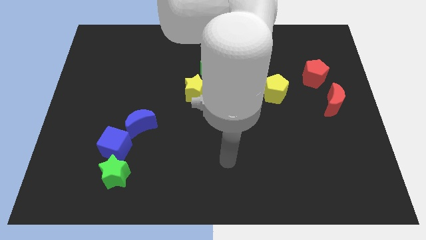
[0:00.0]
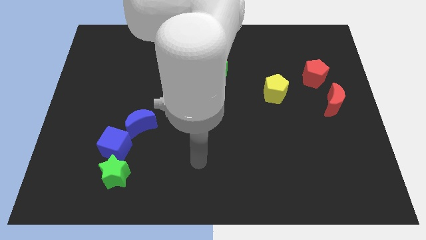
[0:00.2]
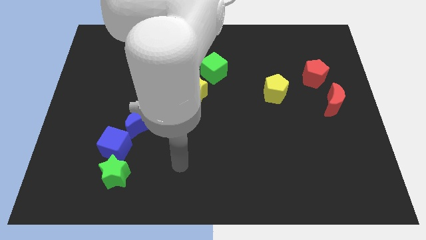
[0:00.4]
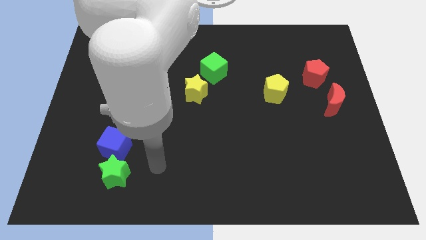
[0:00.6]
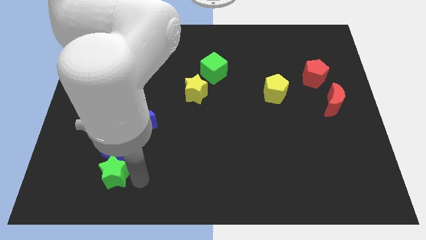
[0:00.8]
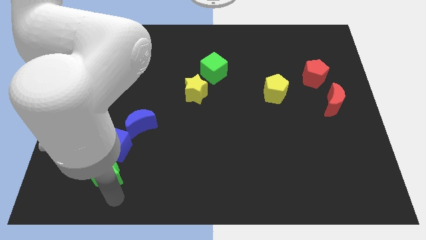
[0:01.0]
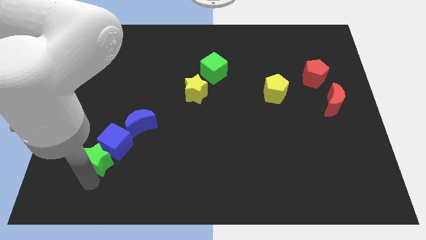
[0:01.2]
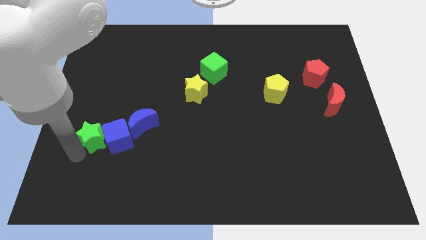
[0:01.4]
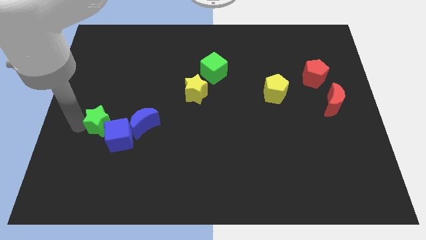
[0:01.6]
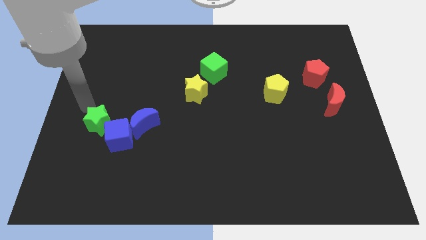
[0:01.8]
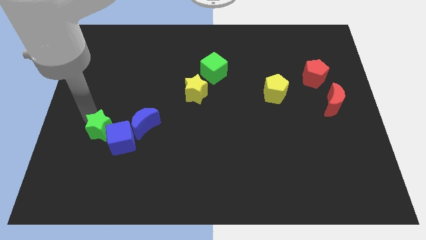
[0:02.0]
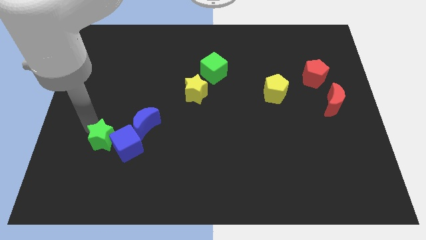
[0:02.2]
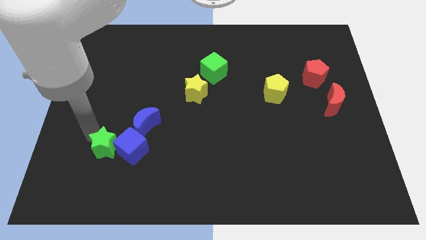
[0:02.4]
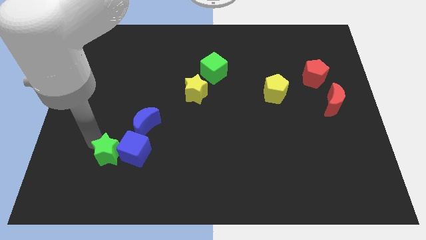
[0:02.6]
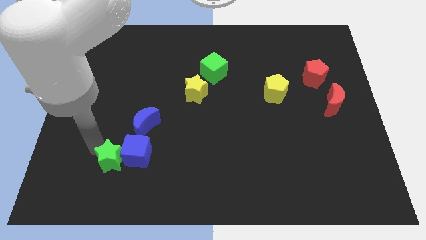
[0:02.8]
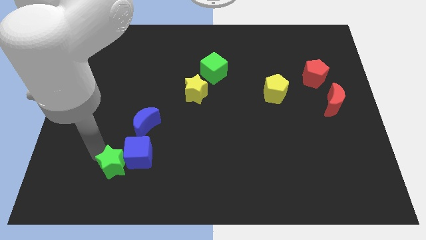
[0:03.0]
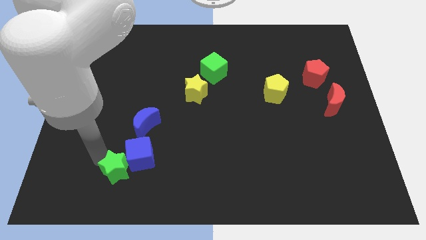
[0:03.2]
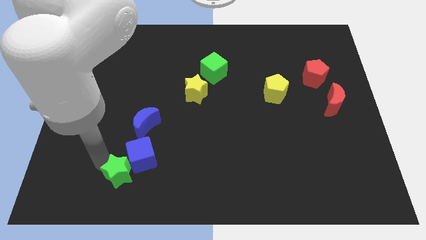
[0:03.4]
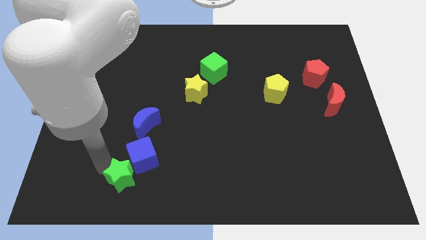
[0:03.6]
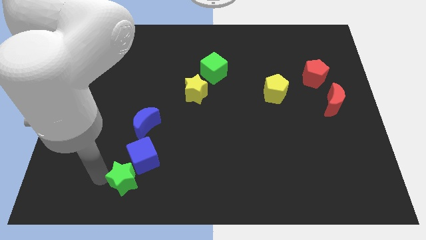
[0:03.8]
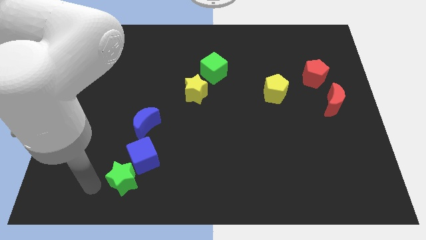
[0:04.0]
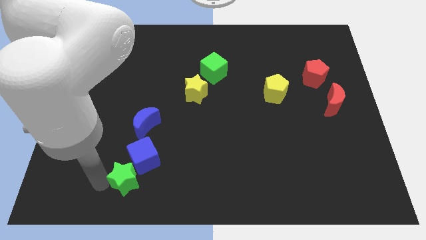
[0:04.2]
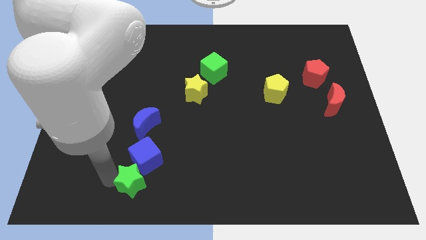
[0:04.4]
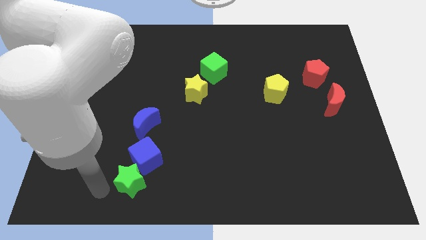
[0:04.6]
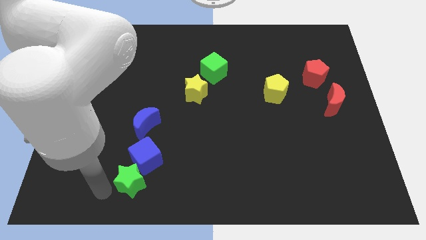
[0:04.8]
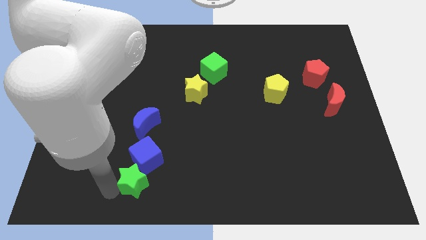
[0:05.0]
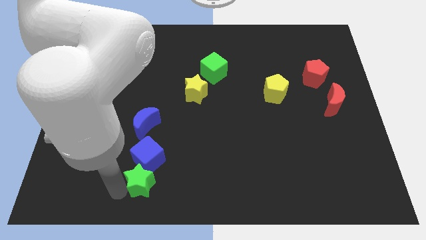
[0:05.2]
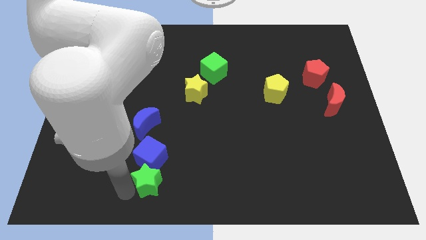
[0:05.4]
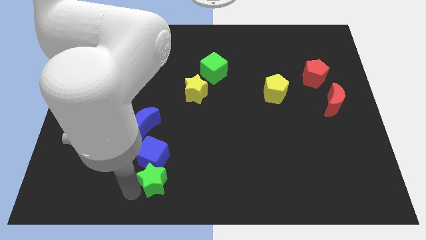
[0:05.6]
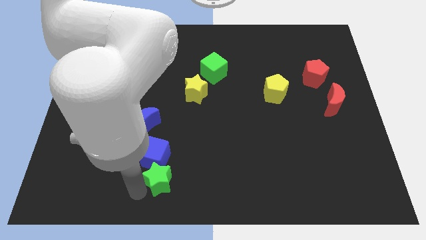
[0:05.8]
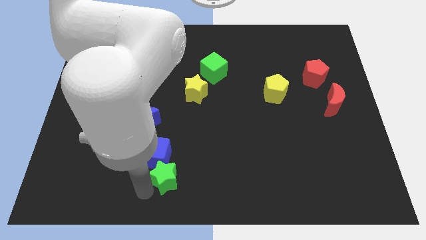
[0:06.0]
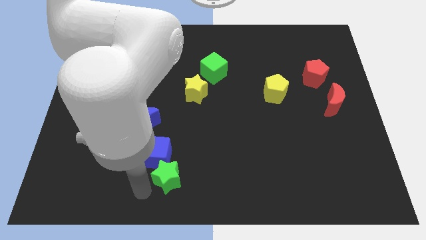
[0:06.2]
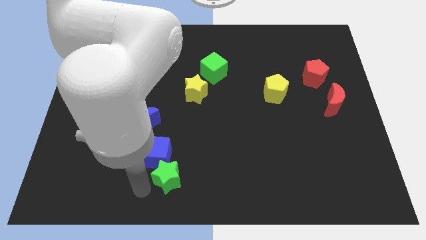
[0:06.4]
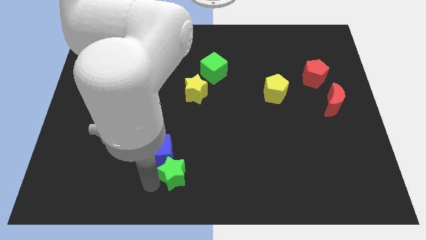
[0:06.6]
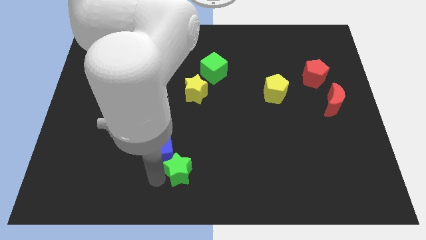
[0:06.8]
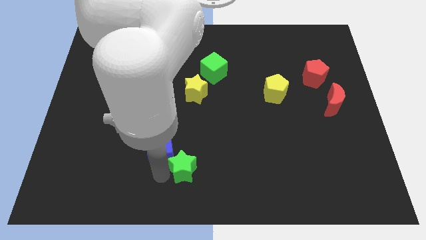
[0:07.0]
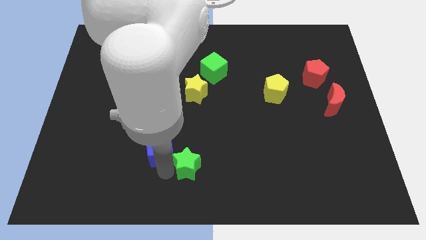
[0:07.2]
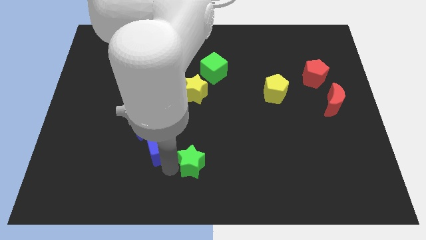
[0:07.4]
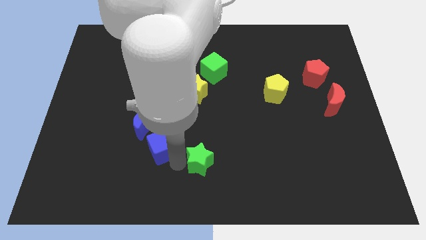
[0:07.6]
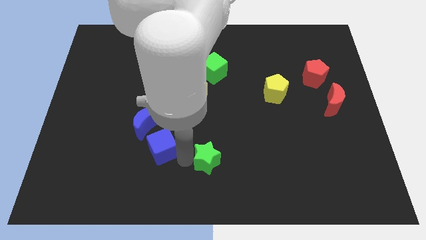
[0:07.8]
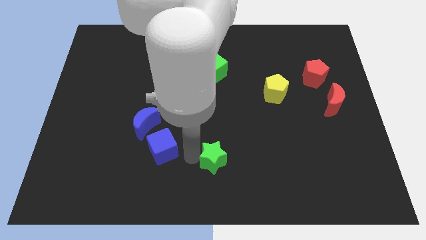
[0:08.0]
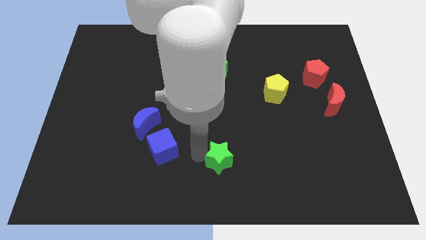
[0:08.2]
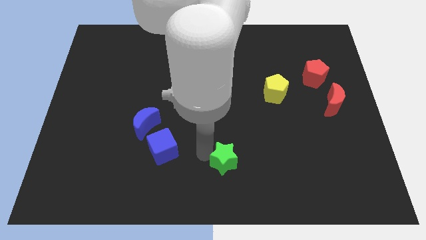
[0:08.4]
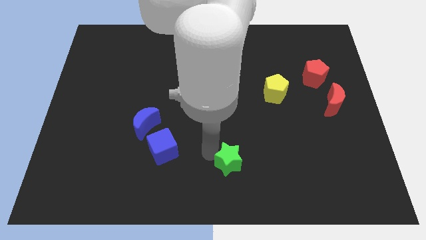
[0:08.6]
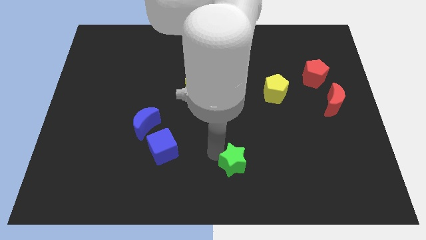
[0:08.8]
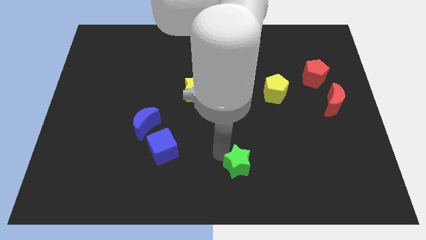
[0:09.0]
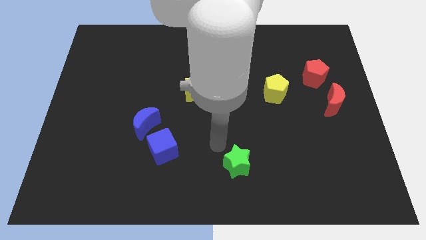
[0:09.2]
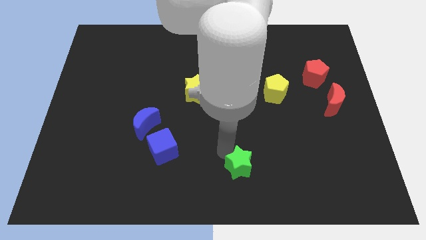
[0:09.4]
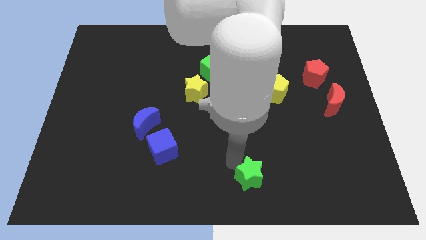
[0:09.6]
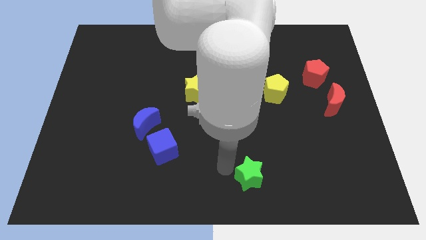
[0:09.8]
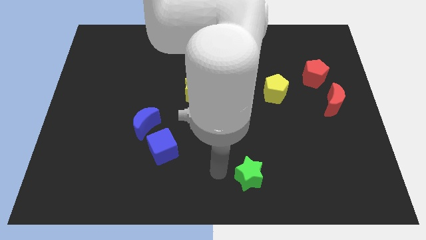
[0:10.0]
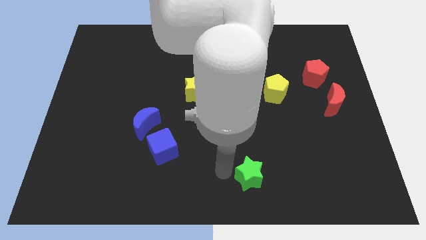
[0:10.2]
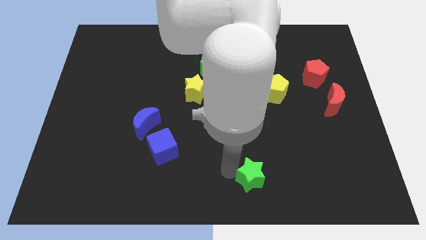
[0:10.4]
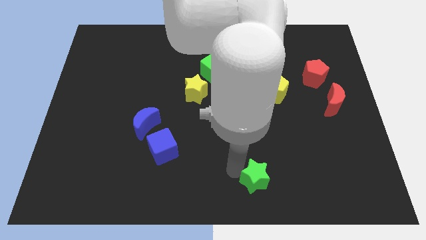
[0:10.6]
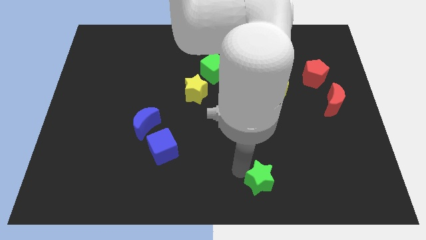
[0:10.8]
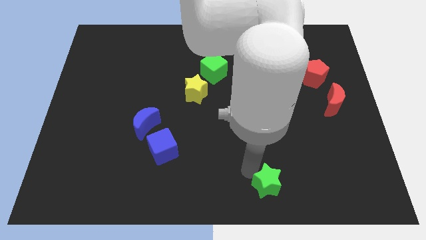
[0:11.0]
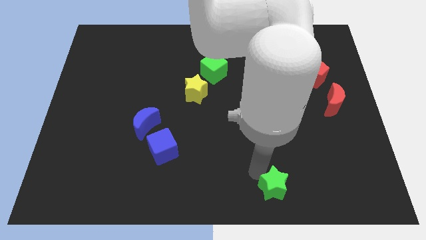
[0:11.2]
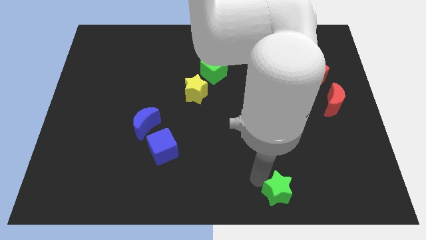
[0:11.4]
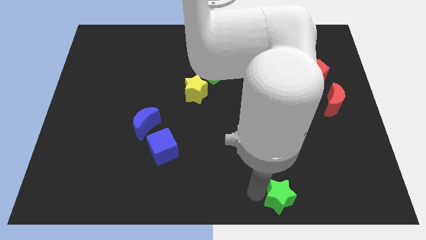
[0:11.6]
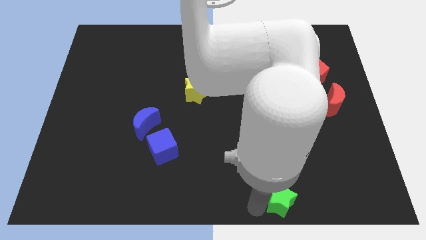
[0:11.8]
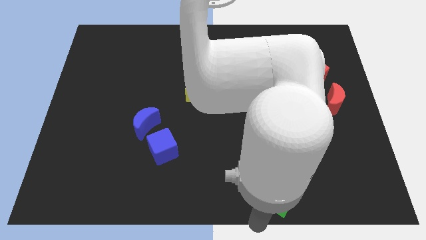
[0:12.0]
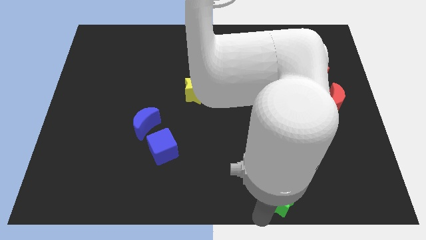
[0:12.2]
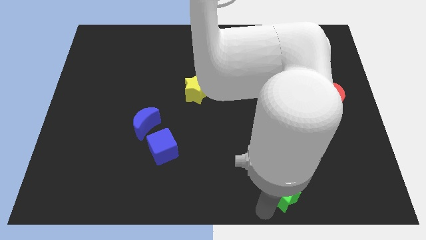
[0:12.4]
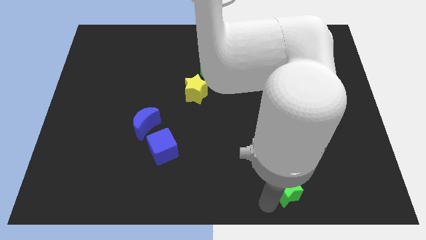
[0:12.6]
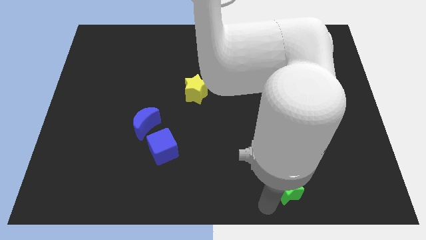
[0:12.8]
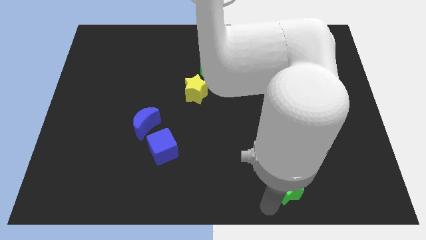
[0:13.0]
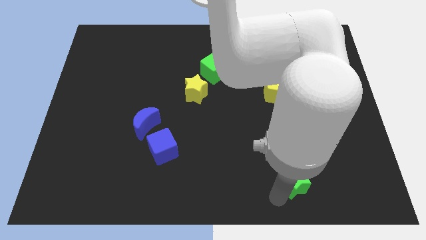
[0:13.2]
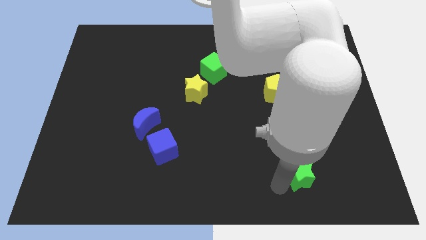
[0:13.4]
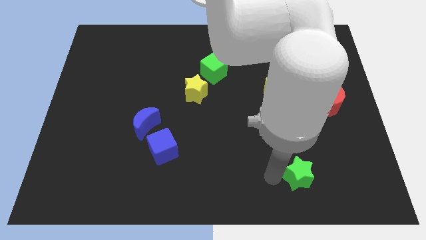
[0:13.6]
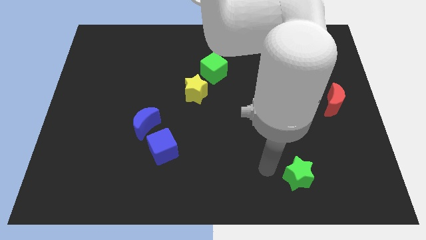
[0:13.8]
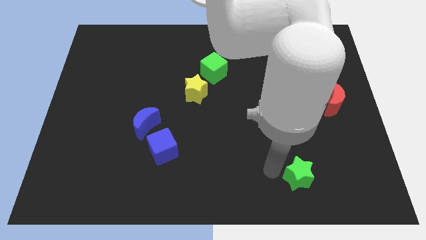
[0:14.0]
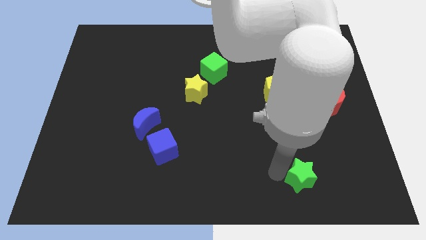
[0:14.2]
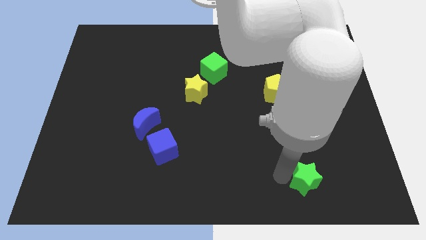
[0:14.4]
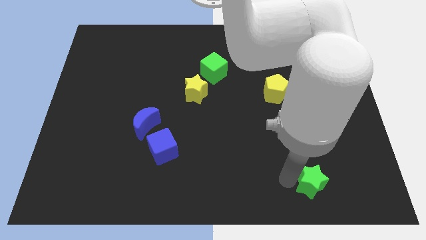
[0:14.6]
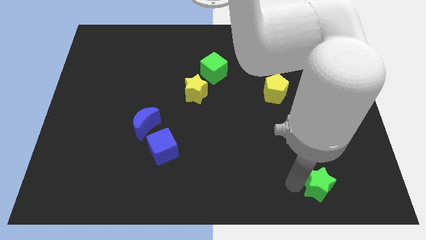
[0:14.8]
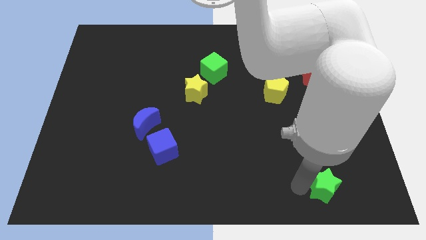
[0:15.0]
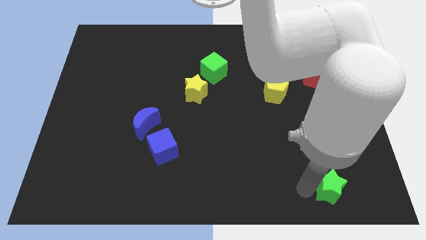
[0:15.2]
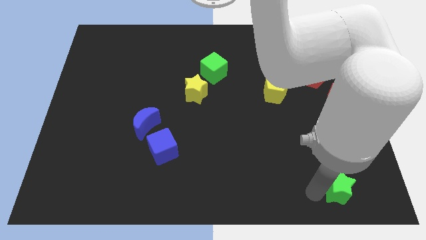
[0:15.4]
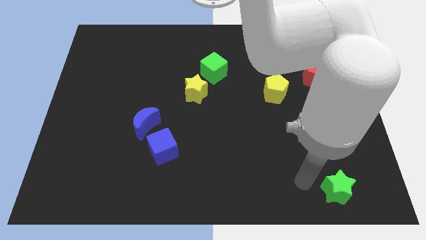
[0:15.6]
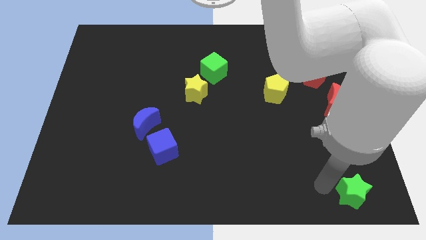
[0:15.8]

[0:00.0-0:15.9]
move the green star to the lower right corner
